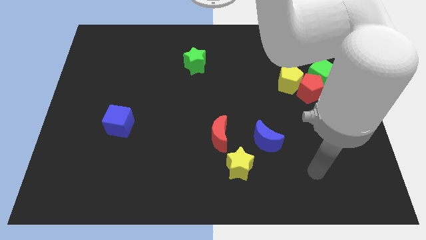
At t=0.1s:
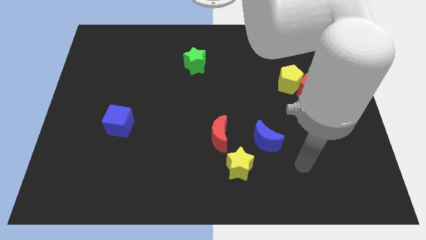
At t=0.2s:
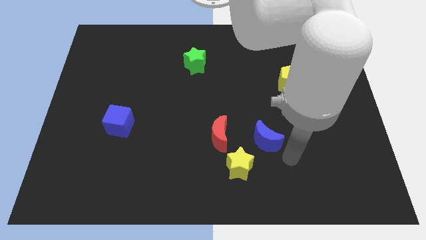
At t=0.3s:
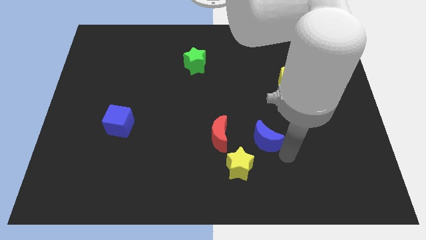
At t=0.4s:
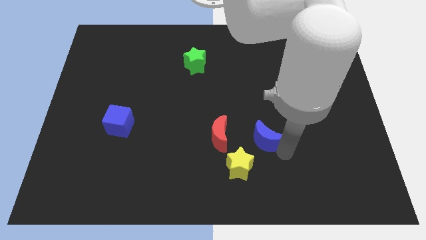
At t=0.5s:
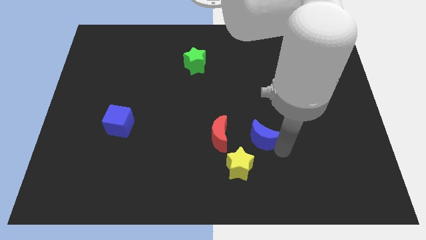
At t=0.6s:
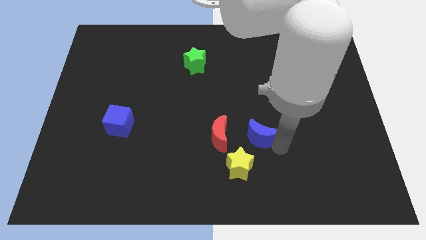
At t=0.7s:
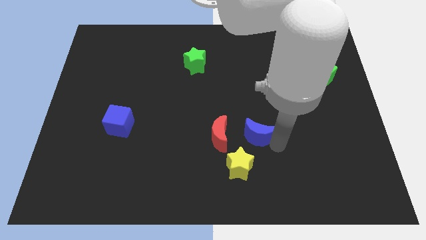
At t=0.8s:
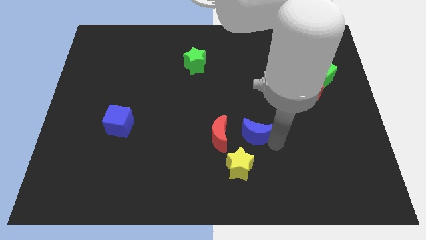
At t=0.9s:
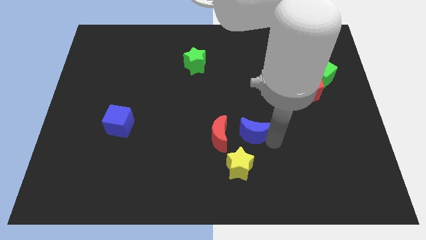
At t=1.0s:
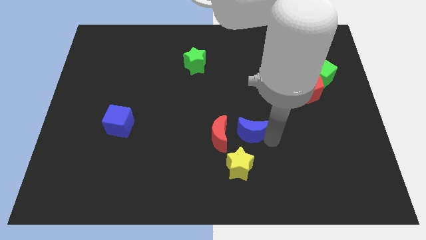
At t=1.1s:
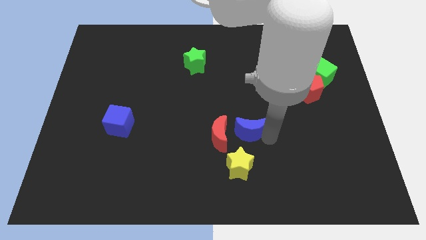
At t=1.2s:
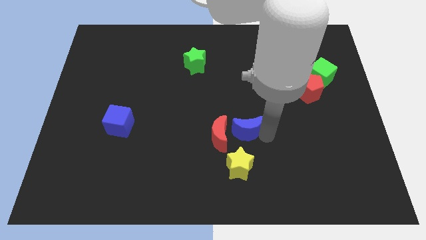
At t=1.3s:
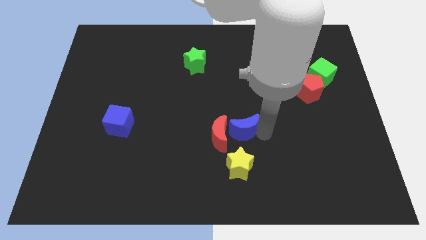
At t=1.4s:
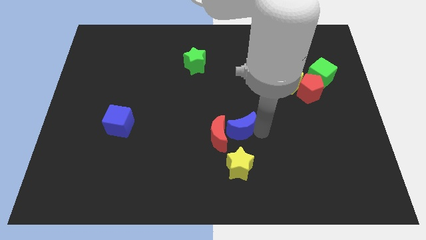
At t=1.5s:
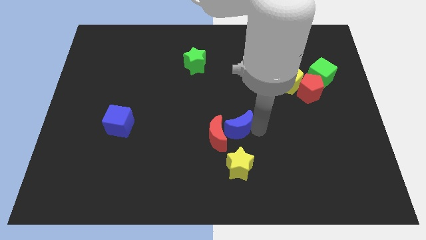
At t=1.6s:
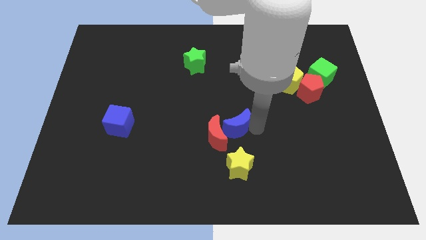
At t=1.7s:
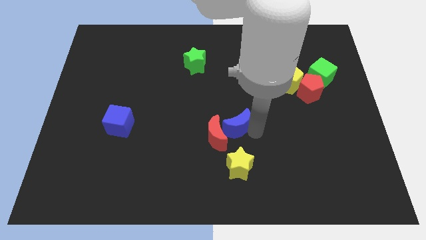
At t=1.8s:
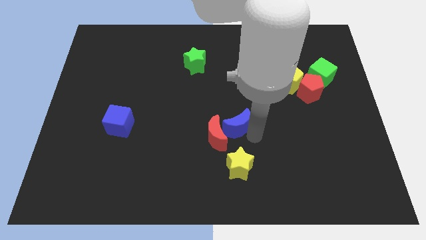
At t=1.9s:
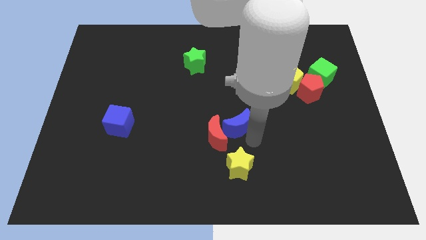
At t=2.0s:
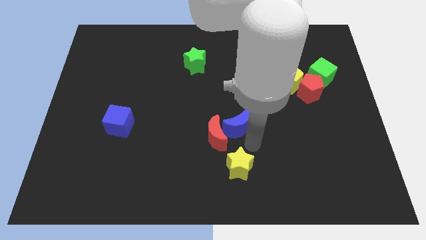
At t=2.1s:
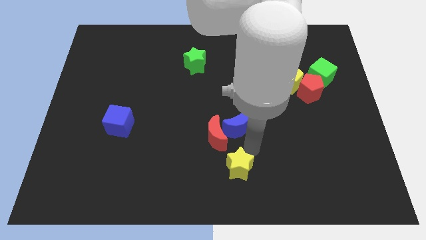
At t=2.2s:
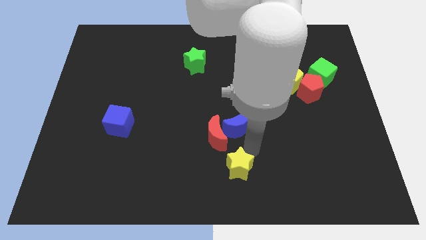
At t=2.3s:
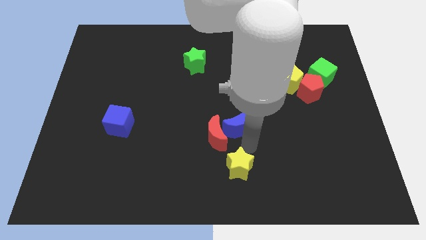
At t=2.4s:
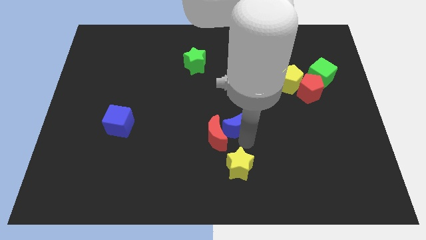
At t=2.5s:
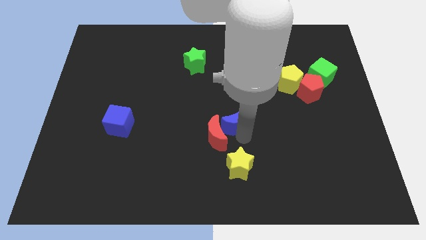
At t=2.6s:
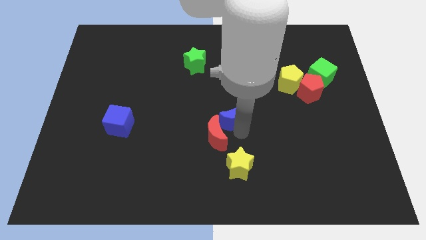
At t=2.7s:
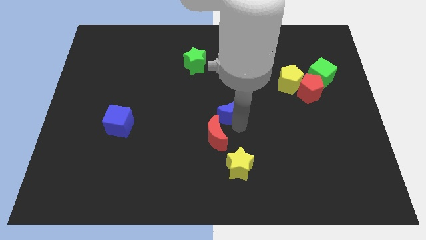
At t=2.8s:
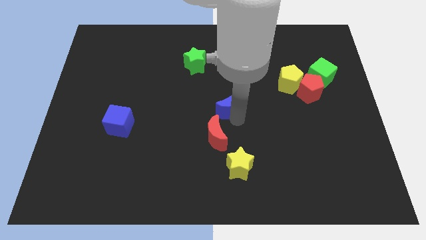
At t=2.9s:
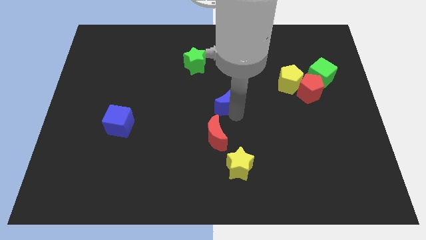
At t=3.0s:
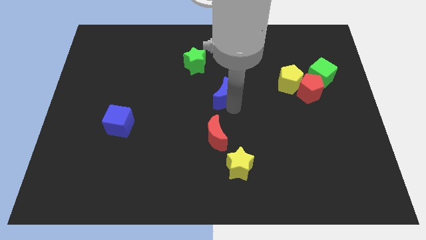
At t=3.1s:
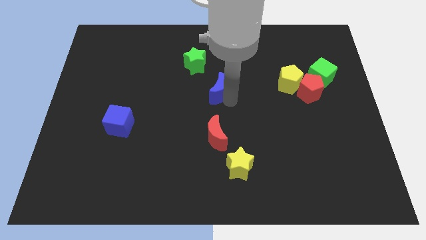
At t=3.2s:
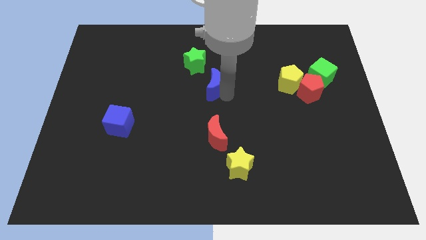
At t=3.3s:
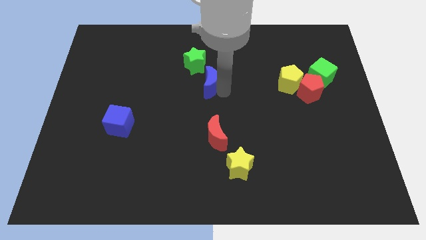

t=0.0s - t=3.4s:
push the blue moon up and to the left diagonally

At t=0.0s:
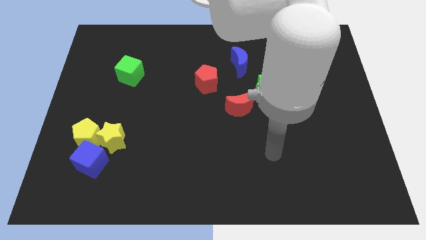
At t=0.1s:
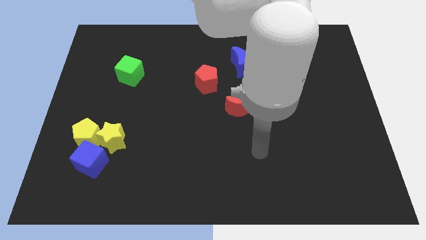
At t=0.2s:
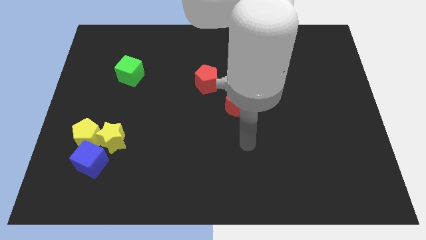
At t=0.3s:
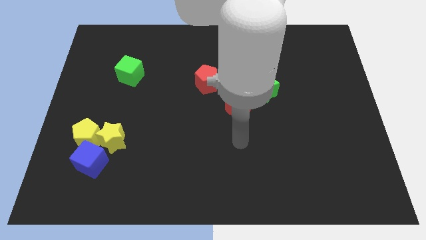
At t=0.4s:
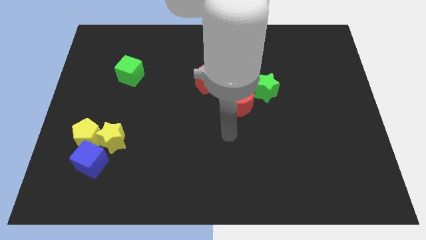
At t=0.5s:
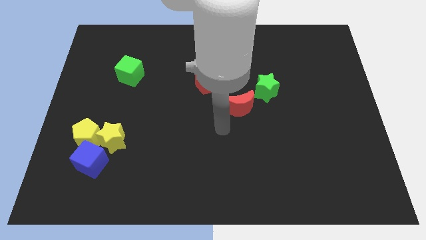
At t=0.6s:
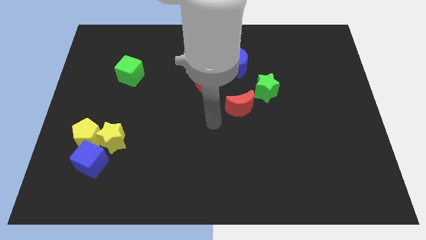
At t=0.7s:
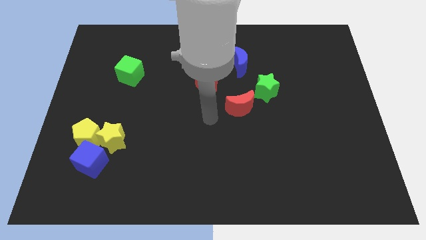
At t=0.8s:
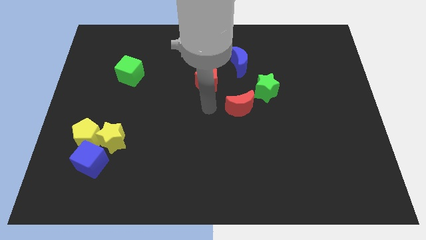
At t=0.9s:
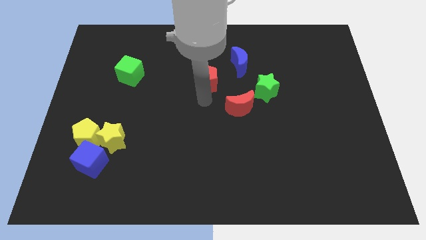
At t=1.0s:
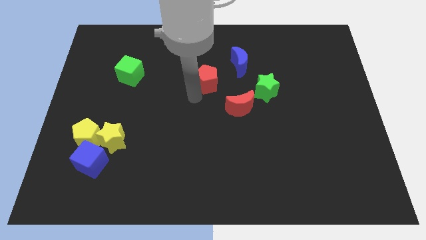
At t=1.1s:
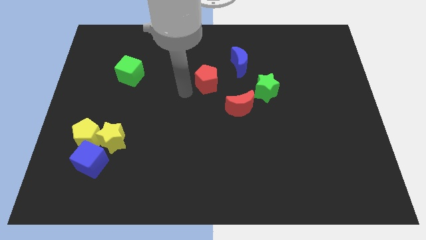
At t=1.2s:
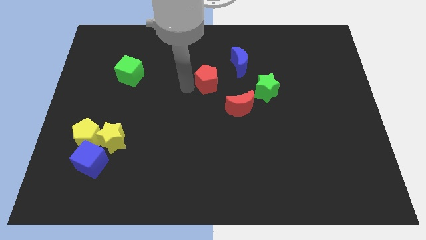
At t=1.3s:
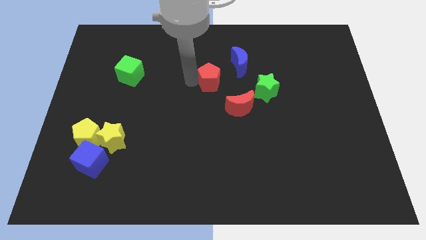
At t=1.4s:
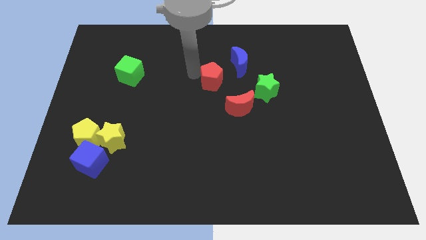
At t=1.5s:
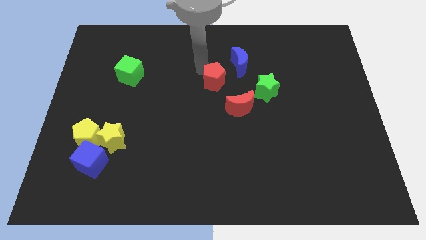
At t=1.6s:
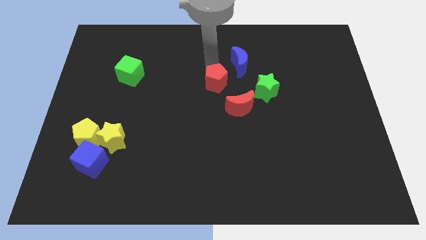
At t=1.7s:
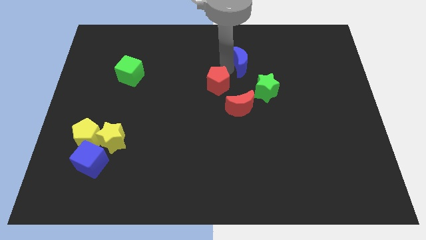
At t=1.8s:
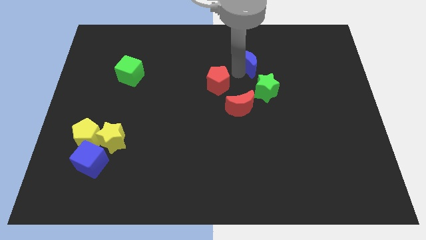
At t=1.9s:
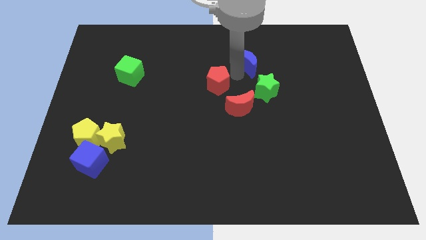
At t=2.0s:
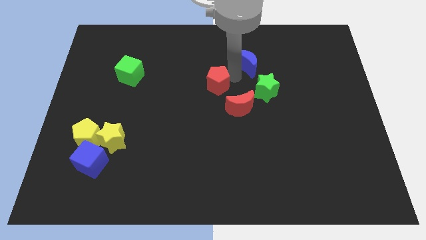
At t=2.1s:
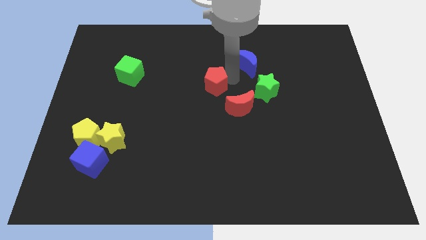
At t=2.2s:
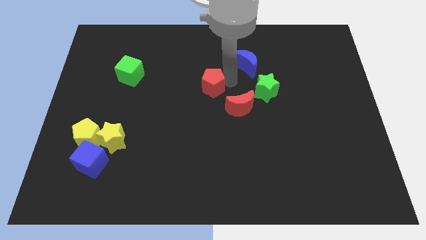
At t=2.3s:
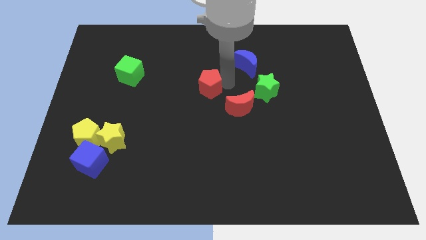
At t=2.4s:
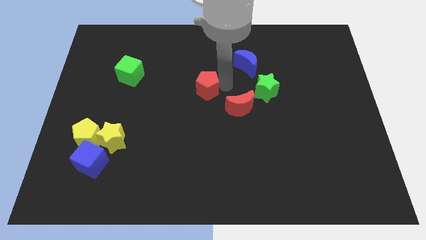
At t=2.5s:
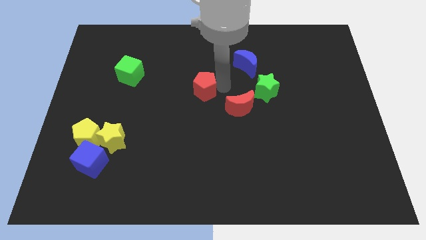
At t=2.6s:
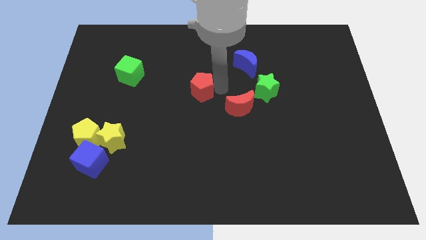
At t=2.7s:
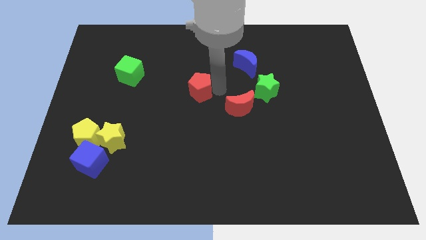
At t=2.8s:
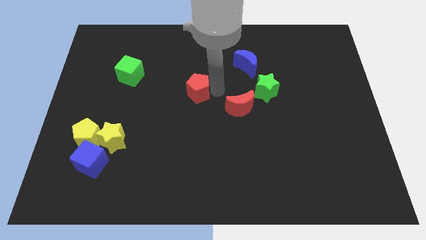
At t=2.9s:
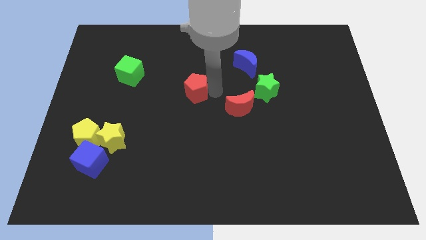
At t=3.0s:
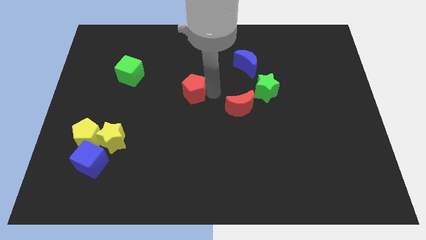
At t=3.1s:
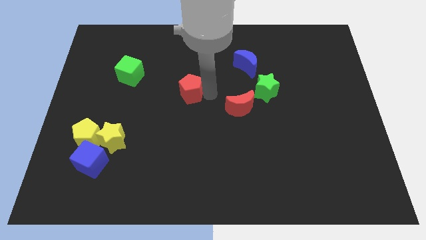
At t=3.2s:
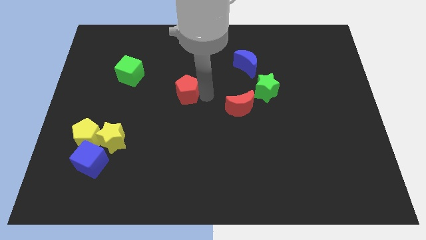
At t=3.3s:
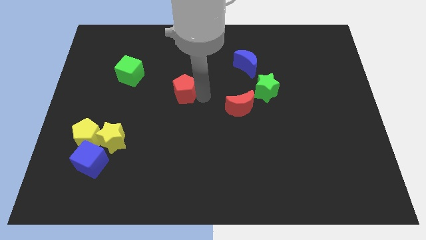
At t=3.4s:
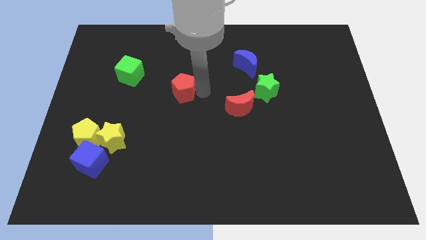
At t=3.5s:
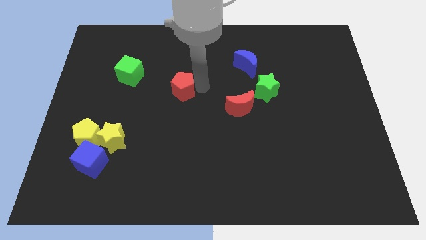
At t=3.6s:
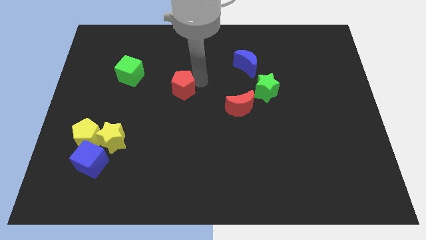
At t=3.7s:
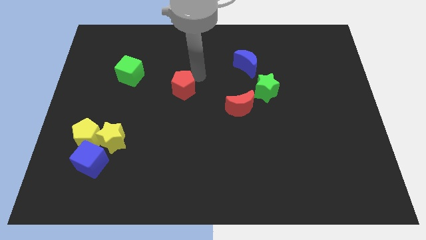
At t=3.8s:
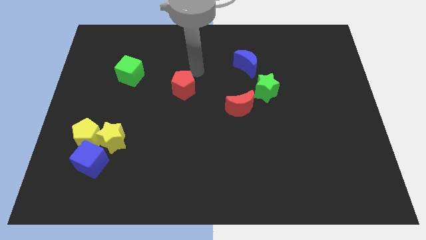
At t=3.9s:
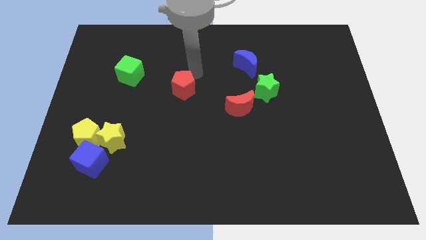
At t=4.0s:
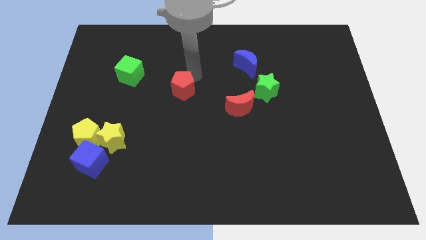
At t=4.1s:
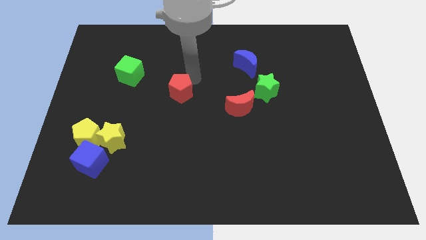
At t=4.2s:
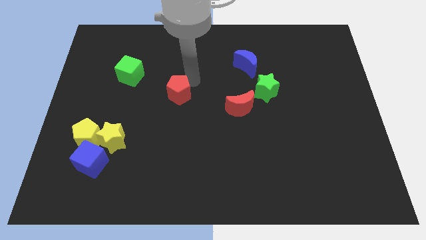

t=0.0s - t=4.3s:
slightly push the red pentagon down and then left

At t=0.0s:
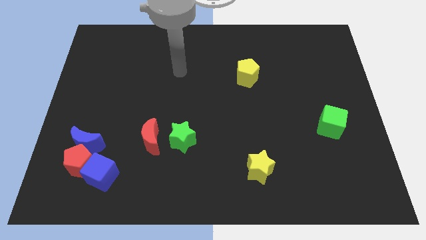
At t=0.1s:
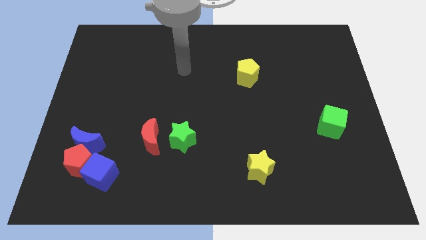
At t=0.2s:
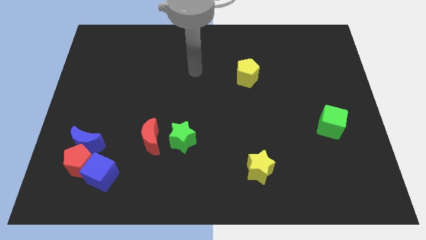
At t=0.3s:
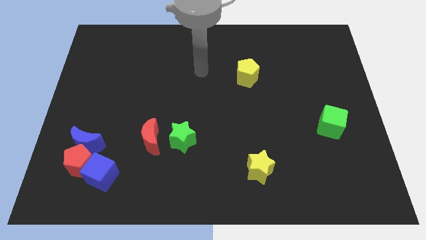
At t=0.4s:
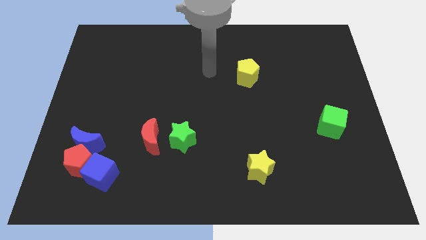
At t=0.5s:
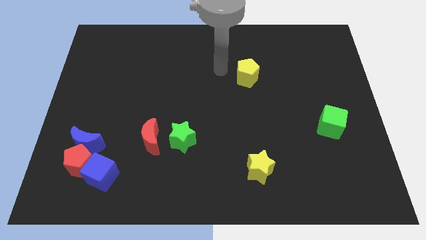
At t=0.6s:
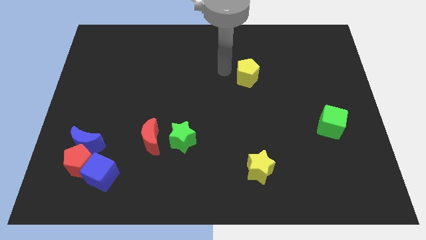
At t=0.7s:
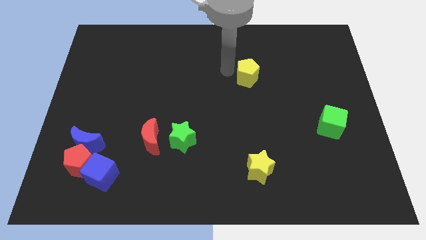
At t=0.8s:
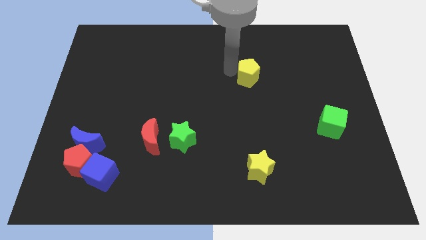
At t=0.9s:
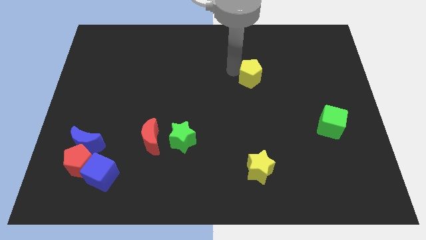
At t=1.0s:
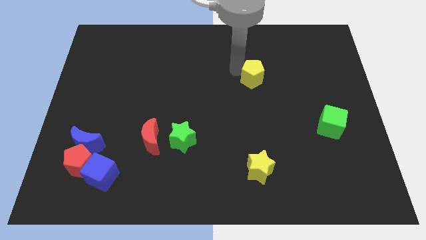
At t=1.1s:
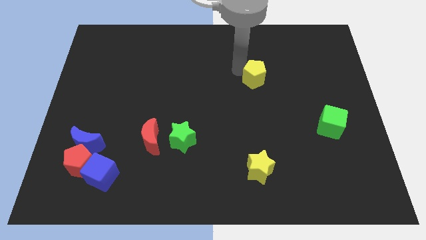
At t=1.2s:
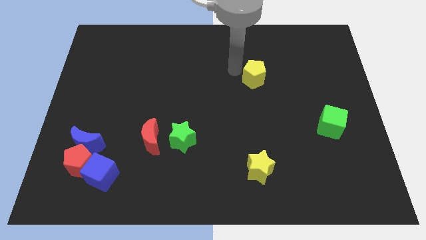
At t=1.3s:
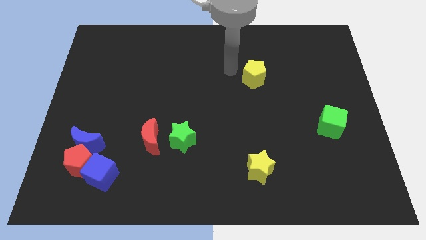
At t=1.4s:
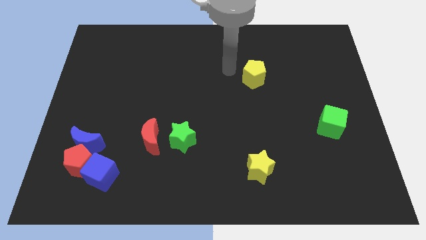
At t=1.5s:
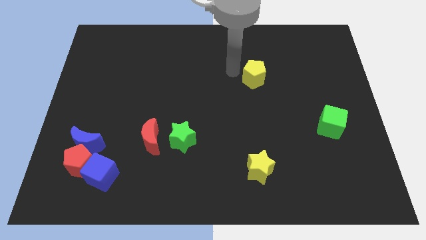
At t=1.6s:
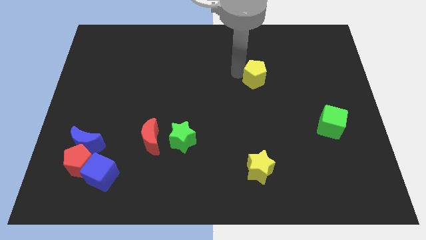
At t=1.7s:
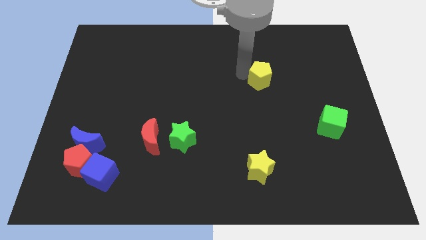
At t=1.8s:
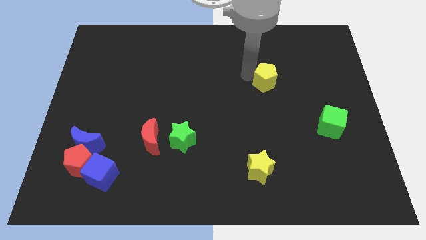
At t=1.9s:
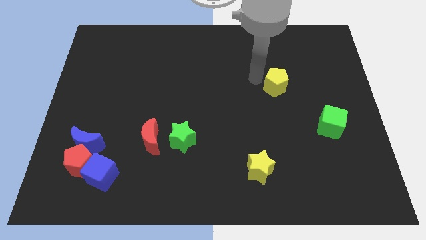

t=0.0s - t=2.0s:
slightly push the yellow pentagon right
